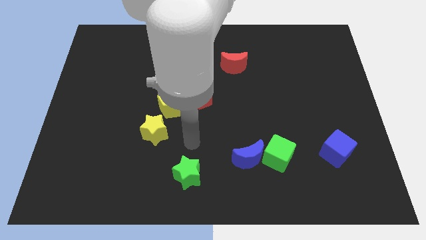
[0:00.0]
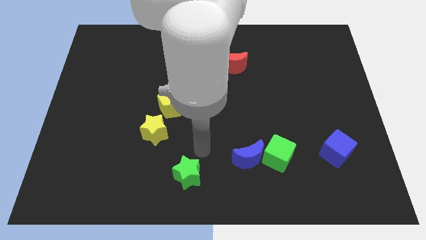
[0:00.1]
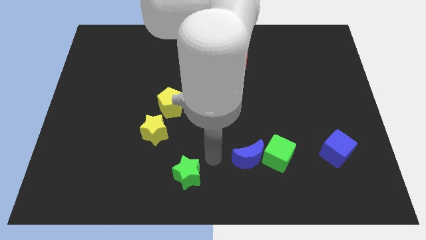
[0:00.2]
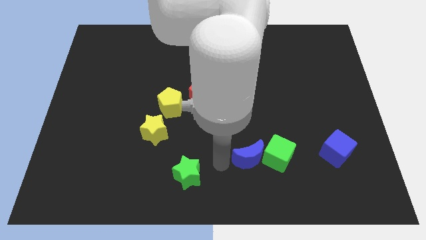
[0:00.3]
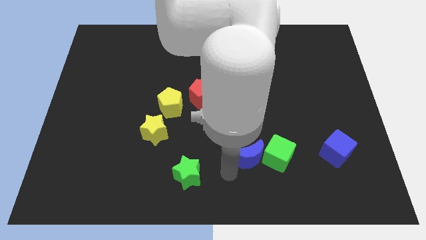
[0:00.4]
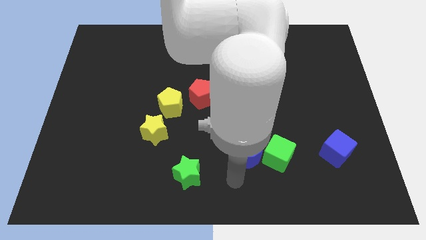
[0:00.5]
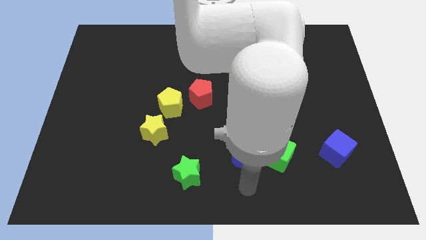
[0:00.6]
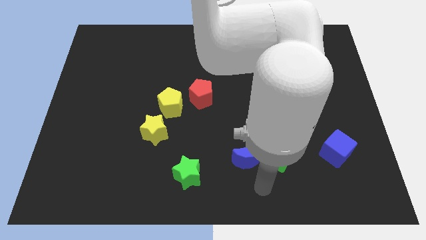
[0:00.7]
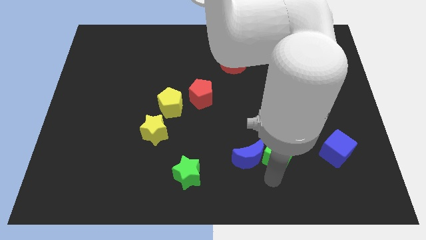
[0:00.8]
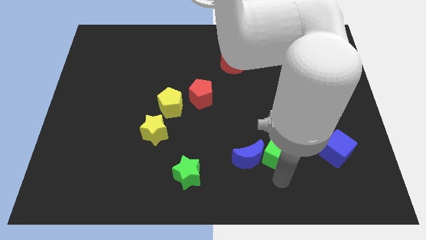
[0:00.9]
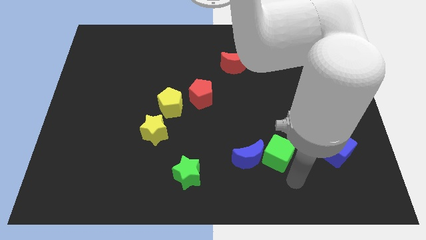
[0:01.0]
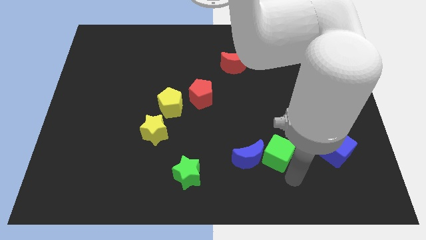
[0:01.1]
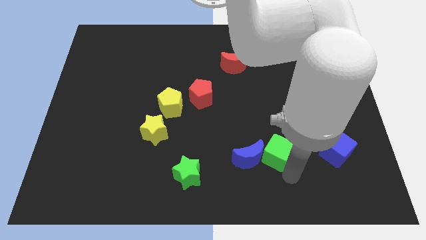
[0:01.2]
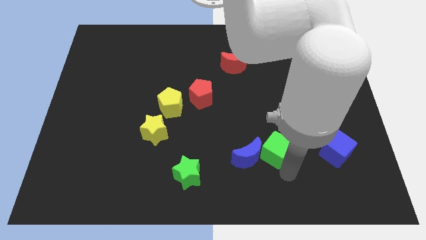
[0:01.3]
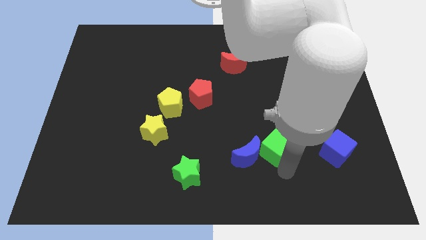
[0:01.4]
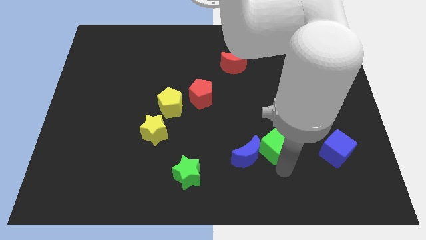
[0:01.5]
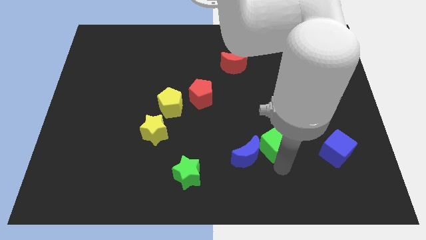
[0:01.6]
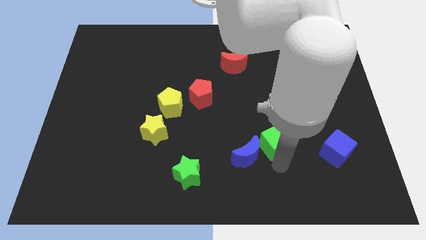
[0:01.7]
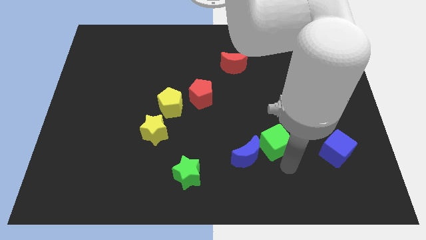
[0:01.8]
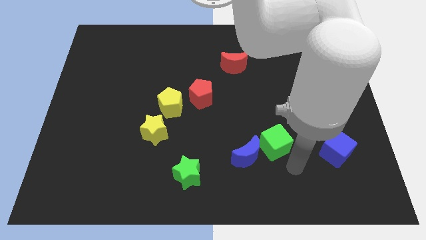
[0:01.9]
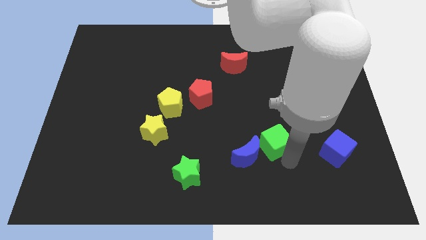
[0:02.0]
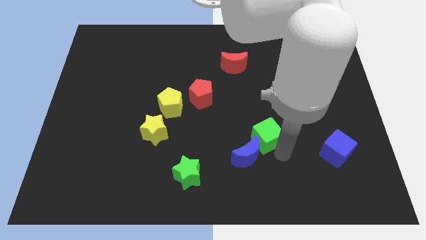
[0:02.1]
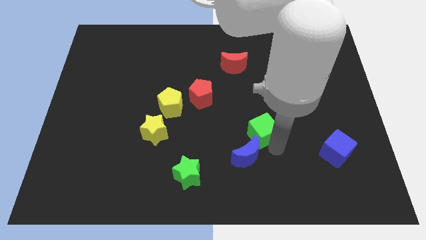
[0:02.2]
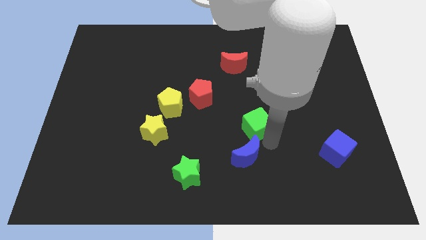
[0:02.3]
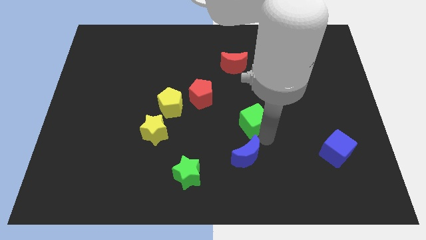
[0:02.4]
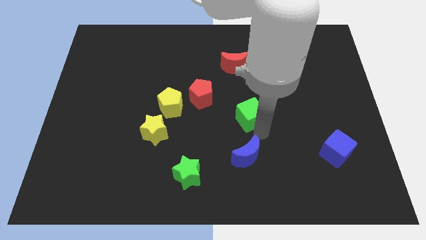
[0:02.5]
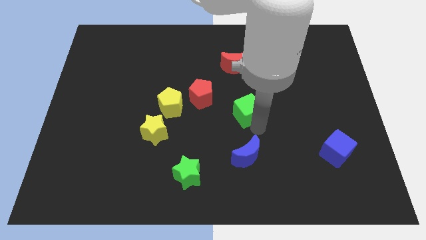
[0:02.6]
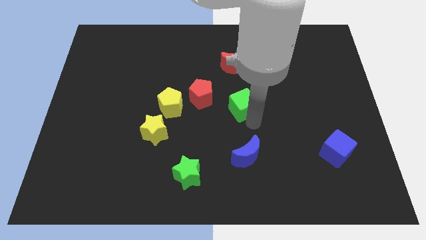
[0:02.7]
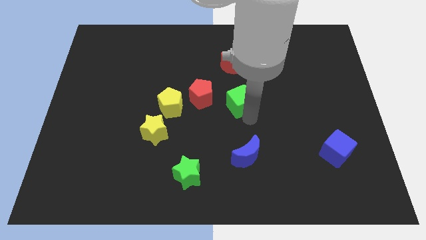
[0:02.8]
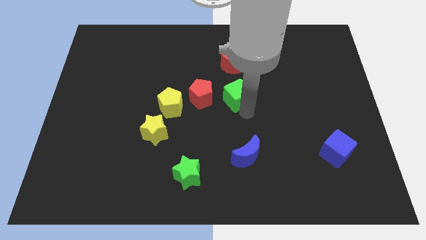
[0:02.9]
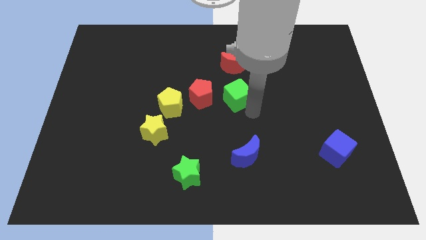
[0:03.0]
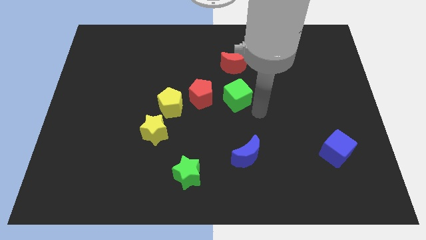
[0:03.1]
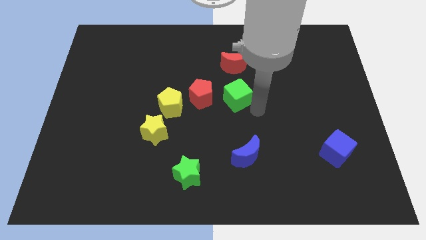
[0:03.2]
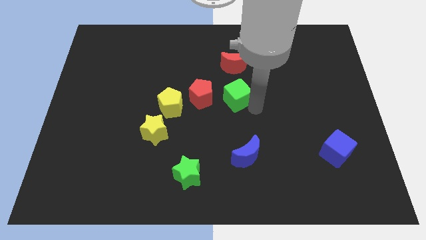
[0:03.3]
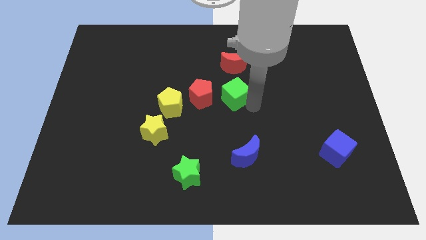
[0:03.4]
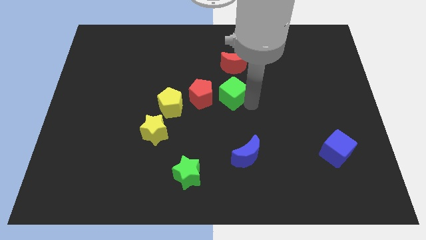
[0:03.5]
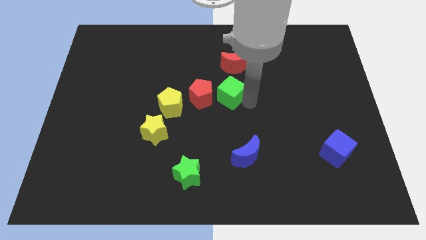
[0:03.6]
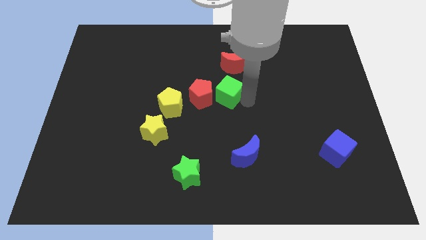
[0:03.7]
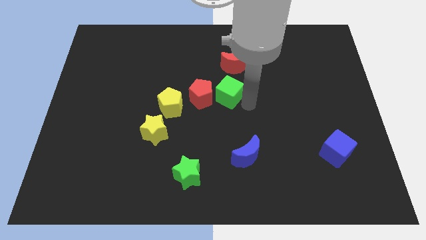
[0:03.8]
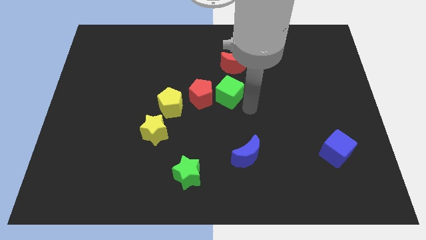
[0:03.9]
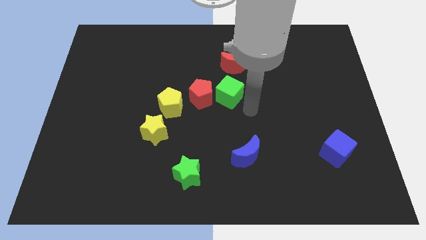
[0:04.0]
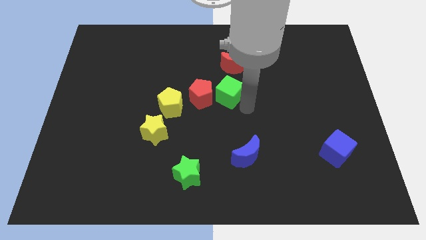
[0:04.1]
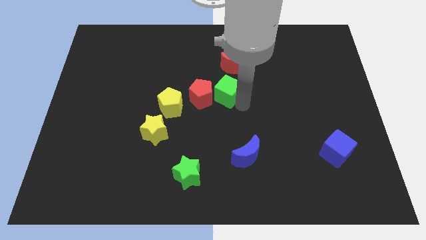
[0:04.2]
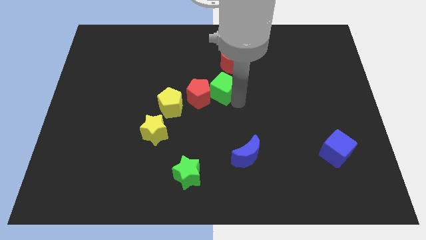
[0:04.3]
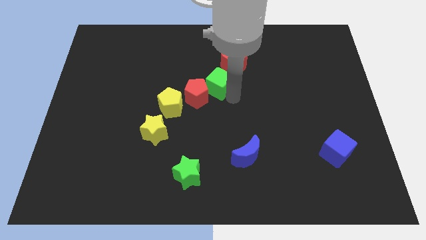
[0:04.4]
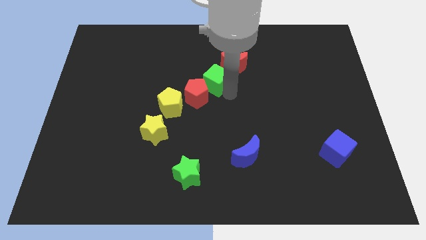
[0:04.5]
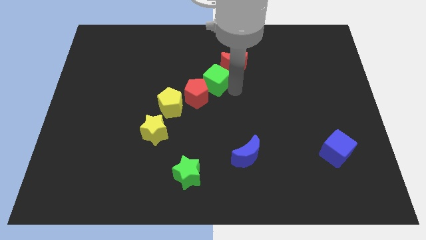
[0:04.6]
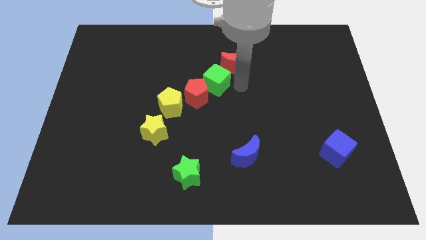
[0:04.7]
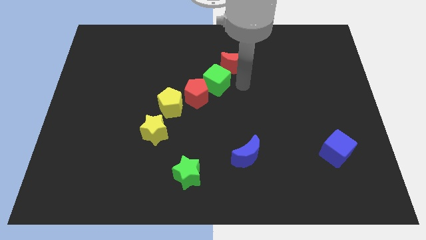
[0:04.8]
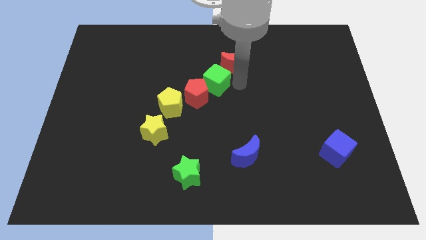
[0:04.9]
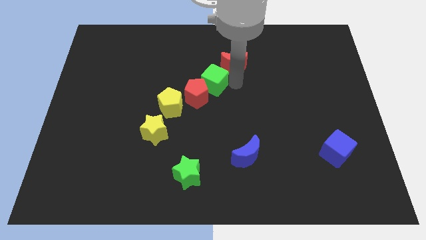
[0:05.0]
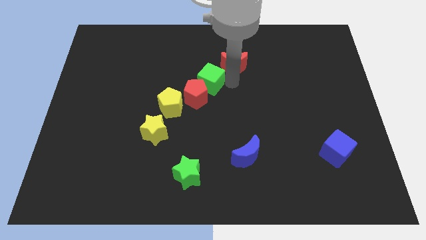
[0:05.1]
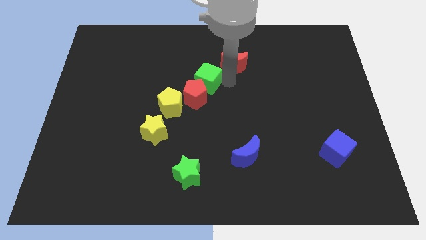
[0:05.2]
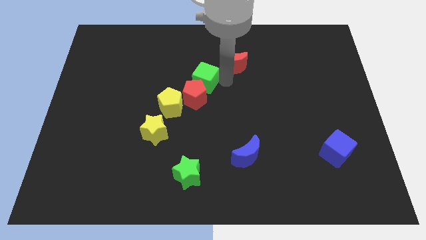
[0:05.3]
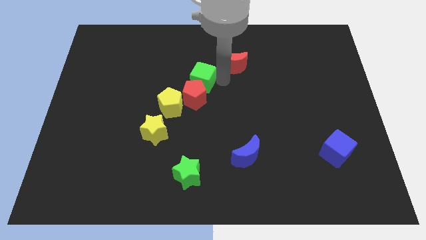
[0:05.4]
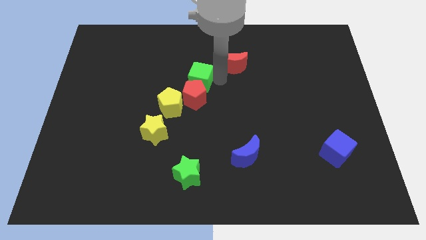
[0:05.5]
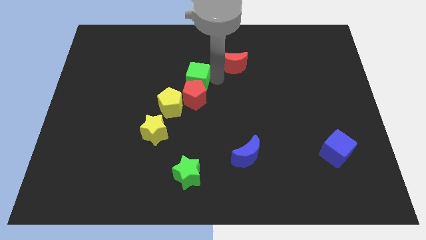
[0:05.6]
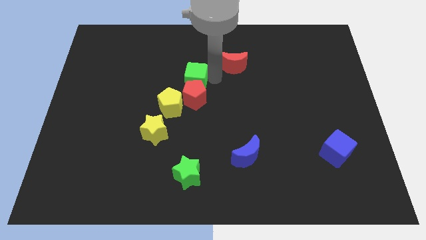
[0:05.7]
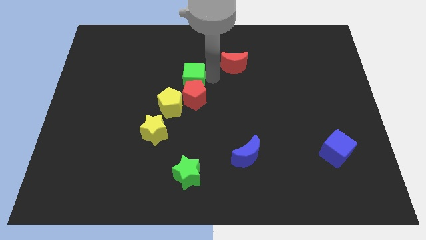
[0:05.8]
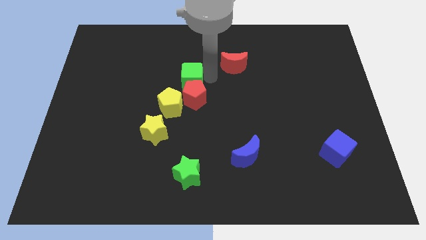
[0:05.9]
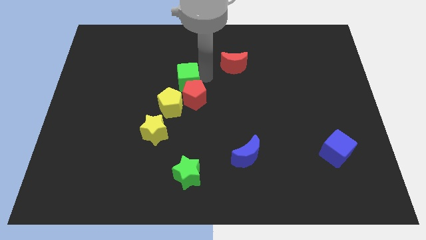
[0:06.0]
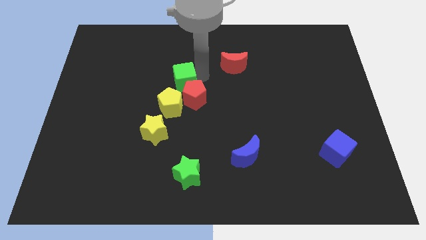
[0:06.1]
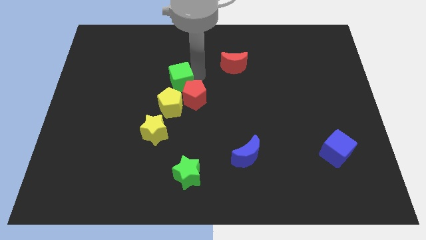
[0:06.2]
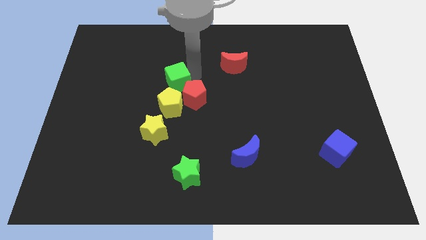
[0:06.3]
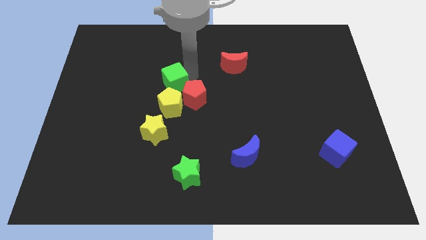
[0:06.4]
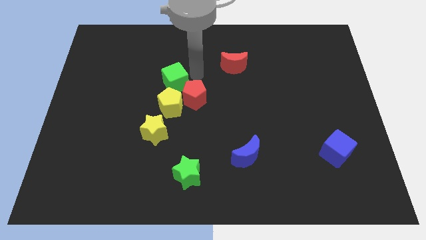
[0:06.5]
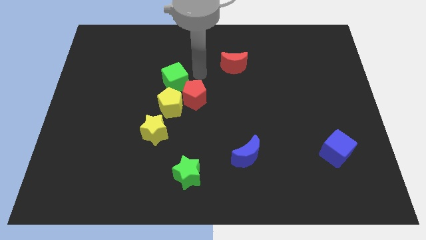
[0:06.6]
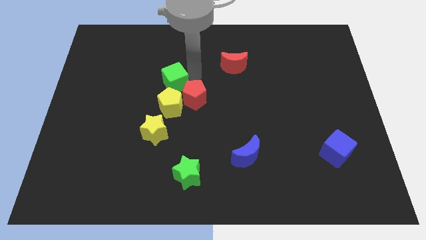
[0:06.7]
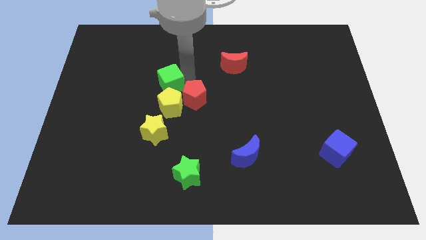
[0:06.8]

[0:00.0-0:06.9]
put the green cube to the top left side of the yellow pentagon

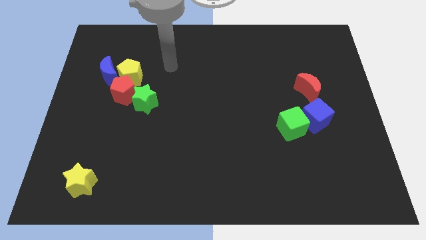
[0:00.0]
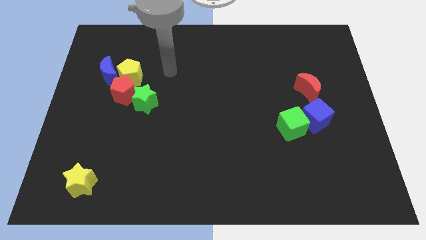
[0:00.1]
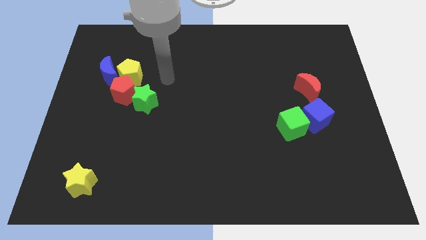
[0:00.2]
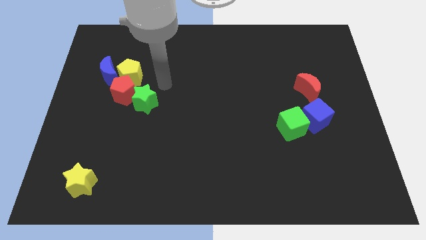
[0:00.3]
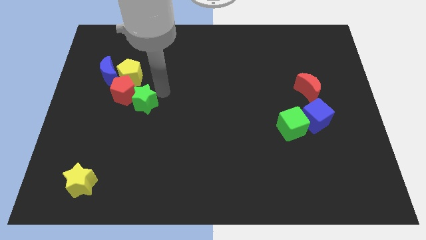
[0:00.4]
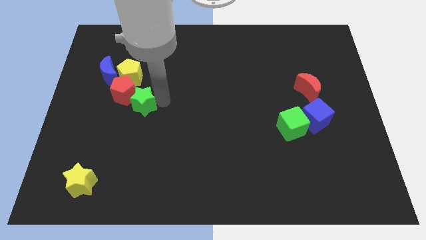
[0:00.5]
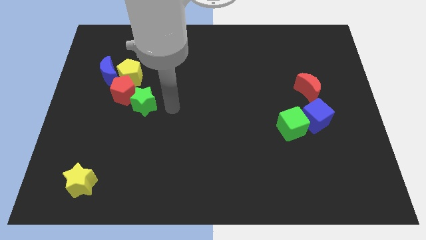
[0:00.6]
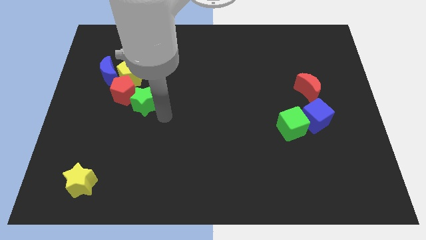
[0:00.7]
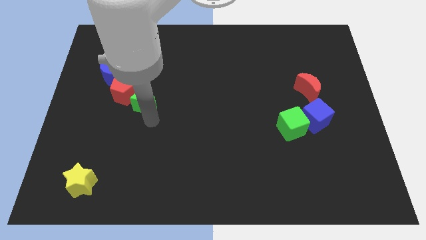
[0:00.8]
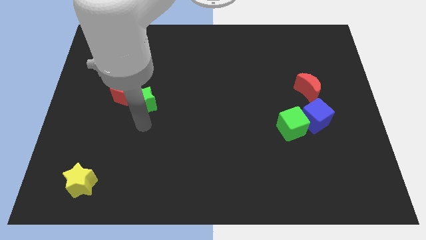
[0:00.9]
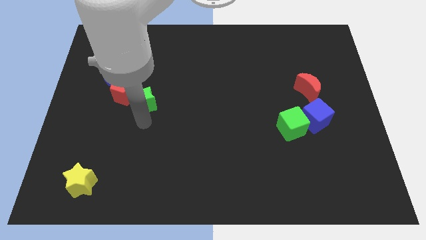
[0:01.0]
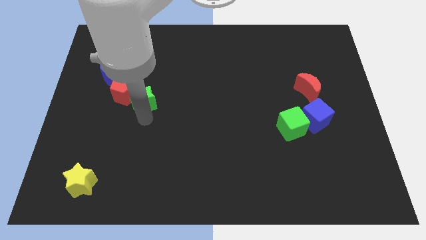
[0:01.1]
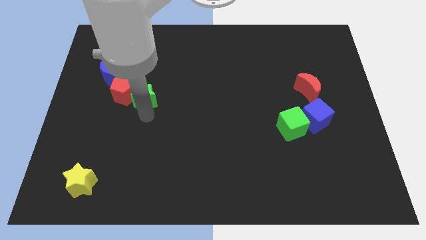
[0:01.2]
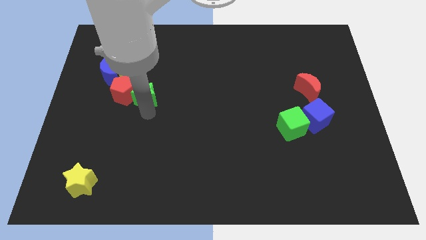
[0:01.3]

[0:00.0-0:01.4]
move the green star to the top right side of the red pentagon
